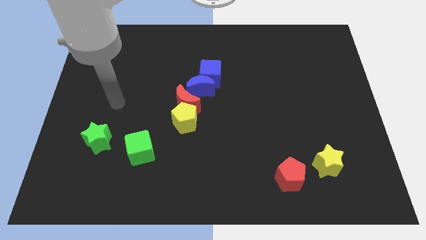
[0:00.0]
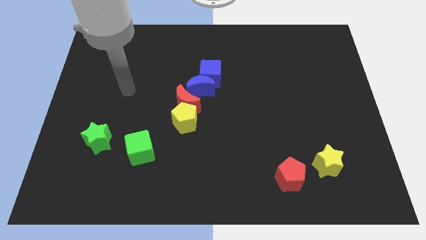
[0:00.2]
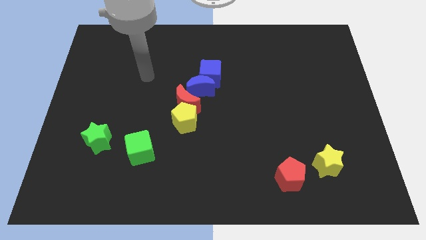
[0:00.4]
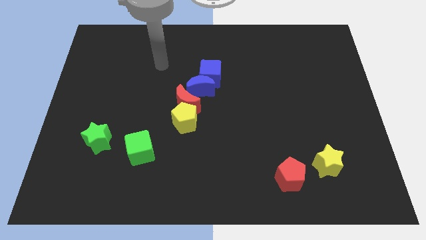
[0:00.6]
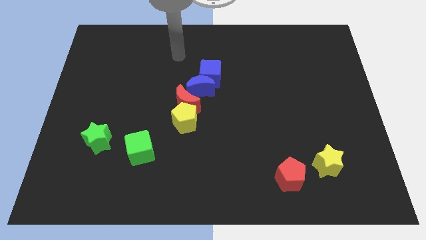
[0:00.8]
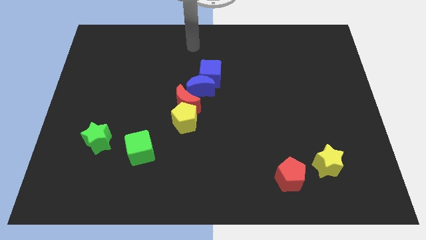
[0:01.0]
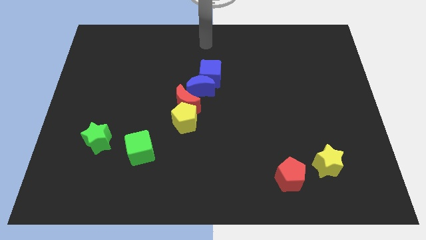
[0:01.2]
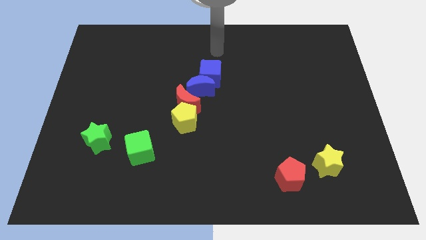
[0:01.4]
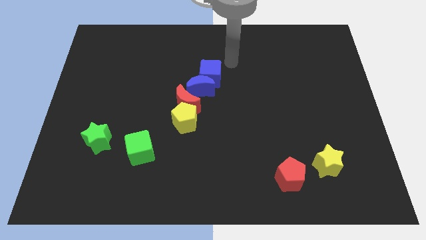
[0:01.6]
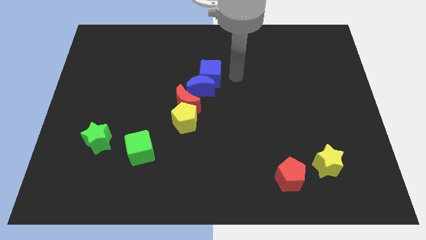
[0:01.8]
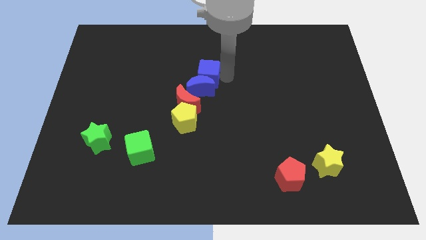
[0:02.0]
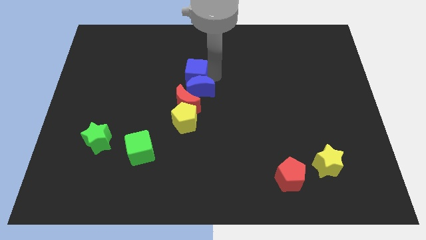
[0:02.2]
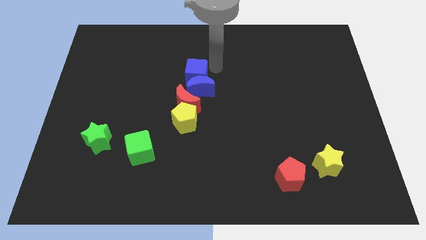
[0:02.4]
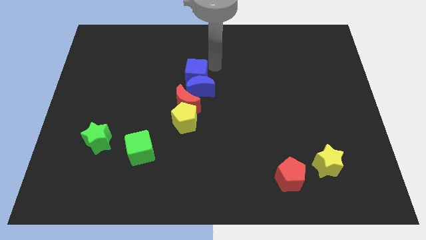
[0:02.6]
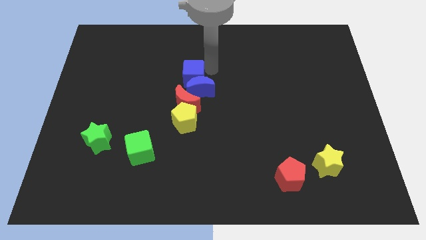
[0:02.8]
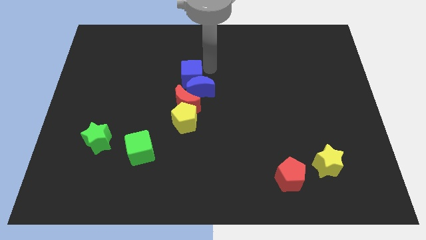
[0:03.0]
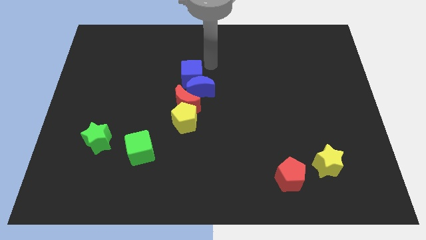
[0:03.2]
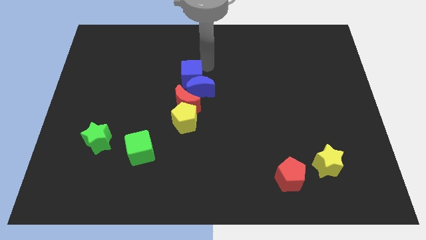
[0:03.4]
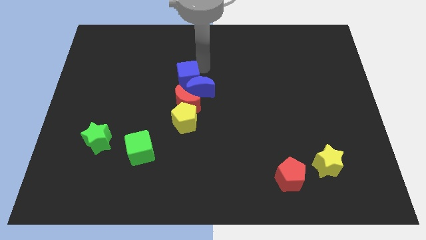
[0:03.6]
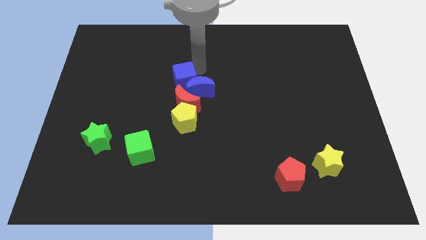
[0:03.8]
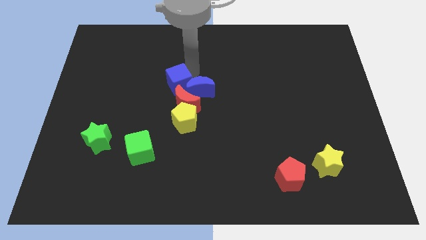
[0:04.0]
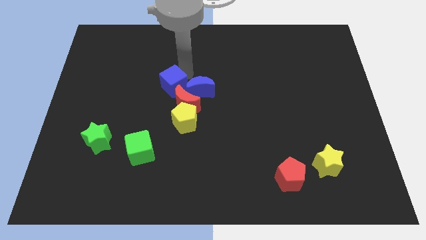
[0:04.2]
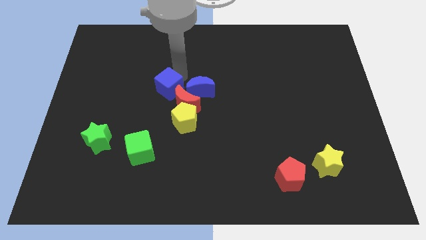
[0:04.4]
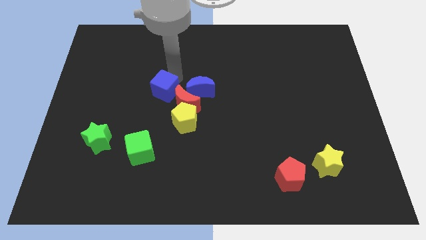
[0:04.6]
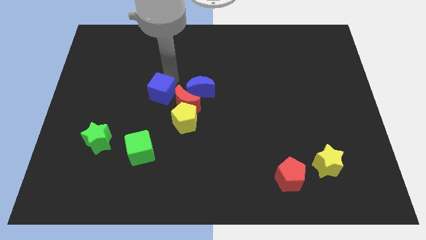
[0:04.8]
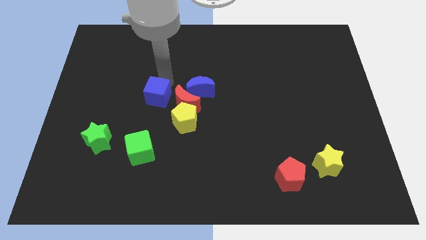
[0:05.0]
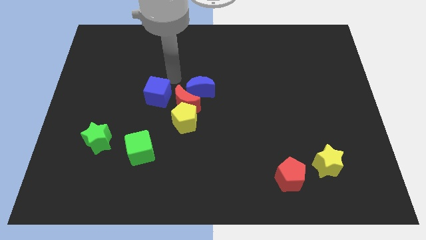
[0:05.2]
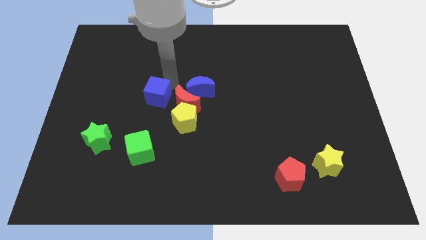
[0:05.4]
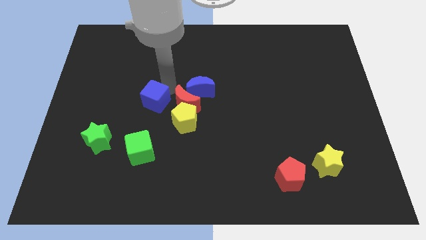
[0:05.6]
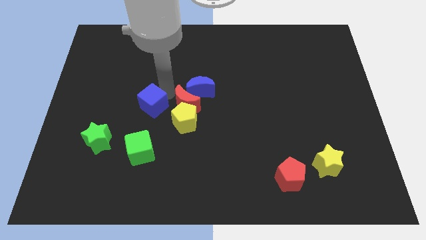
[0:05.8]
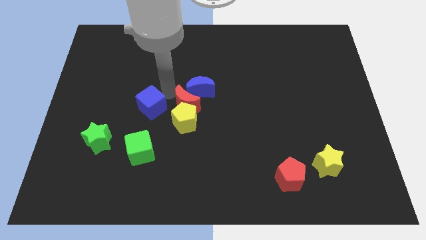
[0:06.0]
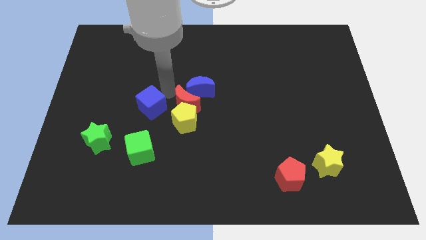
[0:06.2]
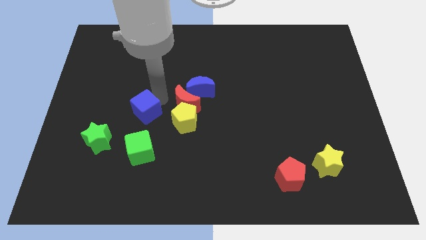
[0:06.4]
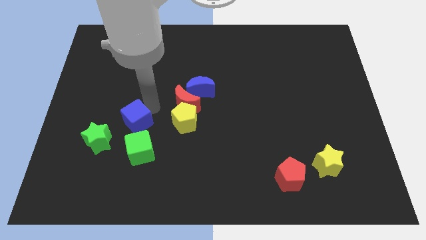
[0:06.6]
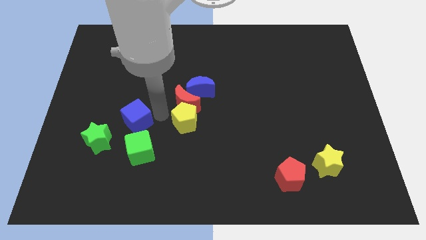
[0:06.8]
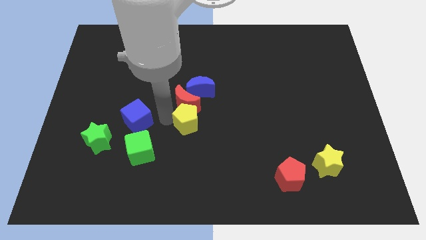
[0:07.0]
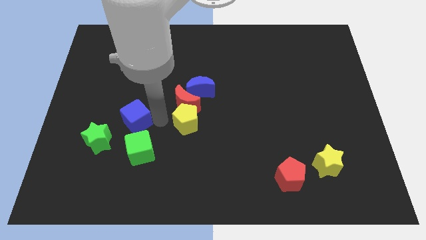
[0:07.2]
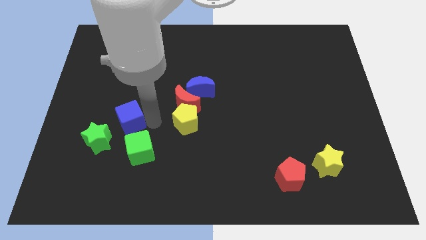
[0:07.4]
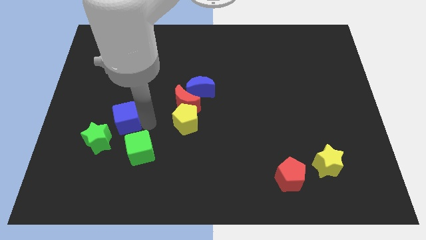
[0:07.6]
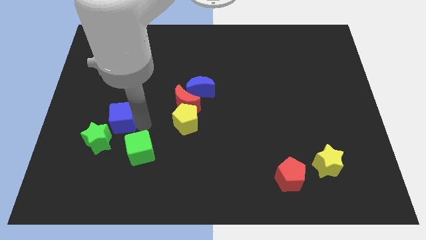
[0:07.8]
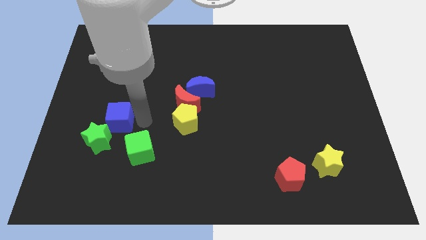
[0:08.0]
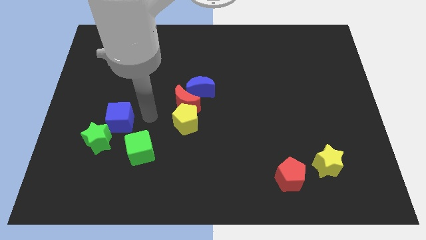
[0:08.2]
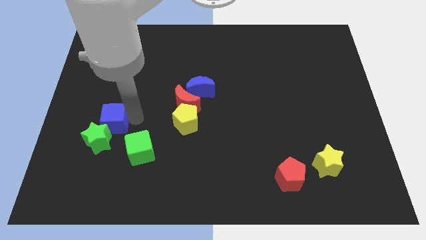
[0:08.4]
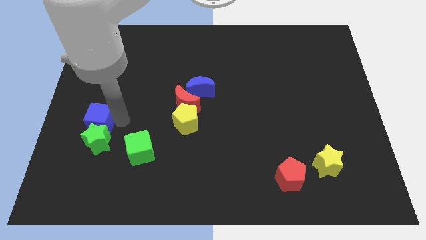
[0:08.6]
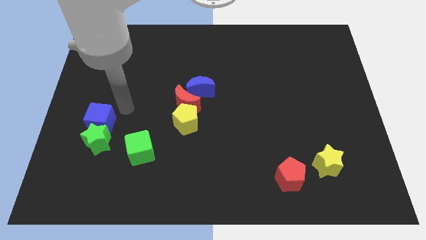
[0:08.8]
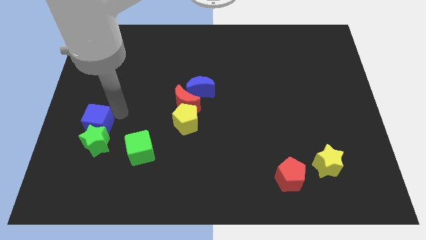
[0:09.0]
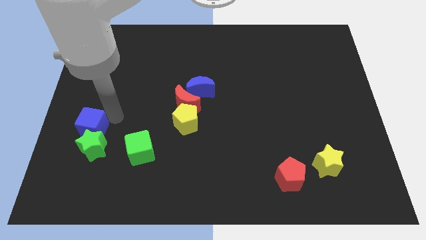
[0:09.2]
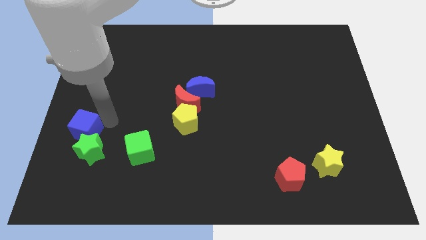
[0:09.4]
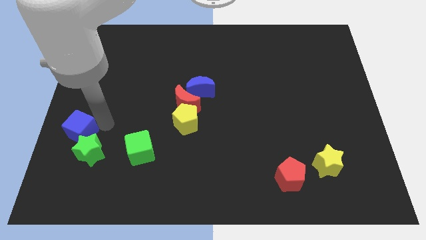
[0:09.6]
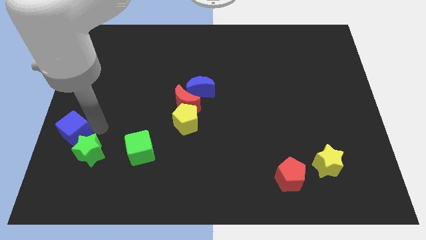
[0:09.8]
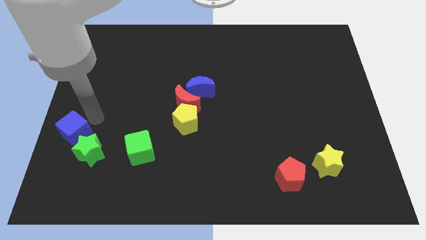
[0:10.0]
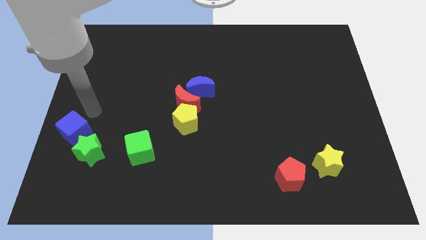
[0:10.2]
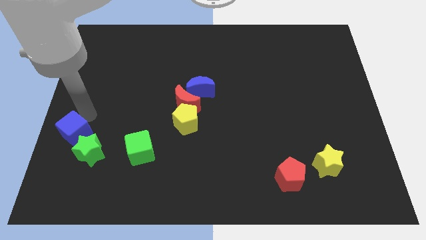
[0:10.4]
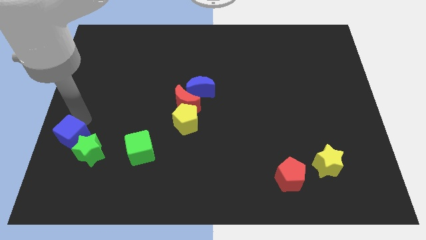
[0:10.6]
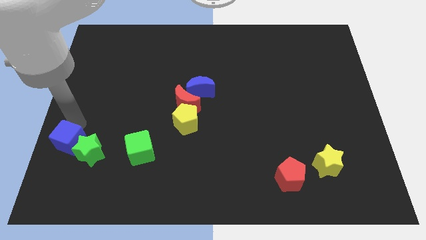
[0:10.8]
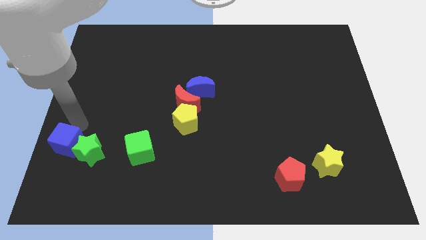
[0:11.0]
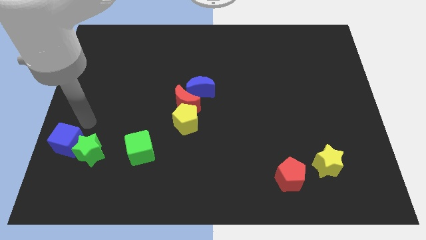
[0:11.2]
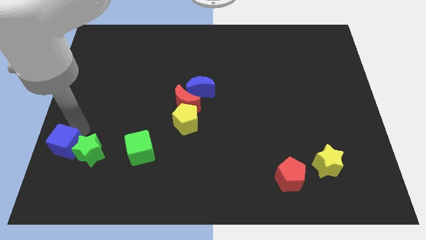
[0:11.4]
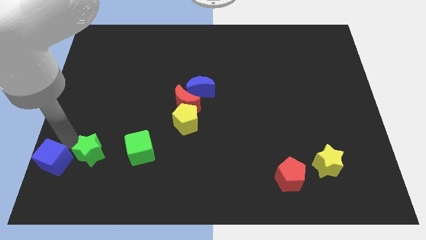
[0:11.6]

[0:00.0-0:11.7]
slide the blue cube to the bottom left corner

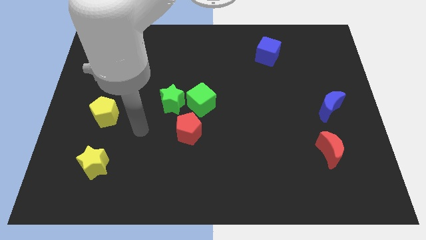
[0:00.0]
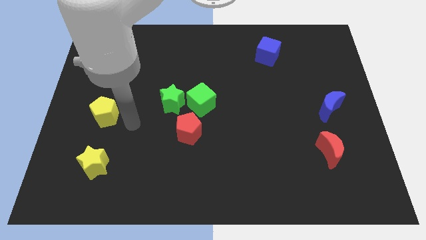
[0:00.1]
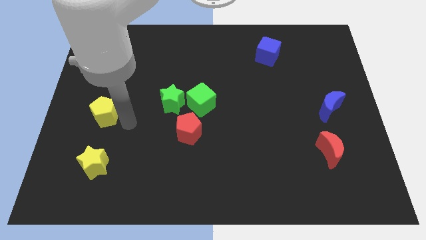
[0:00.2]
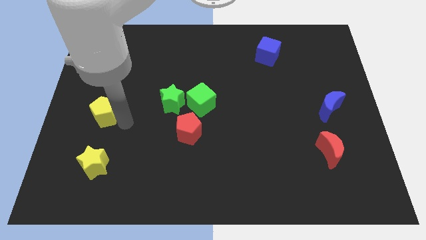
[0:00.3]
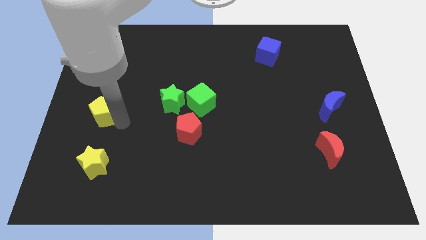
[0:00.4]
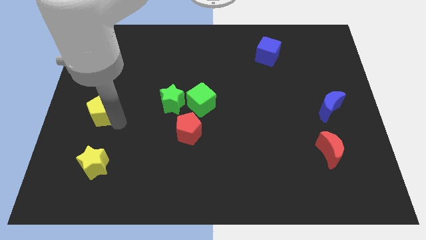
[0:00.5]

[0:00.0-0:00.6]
put the yellow pentagon to the left side of the board
